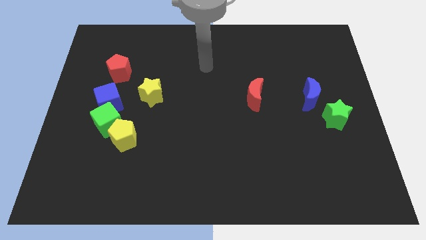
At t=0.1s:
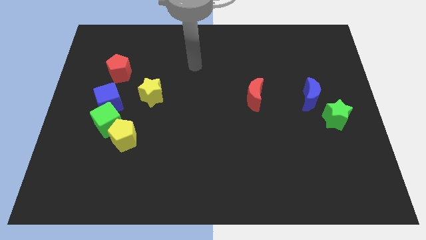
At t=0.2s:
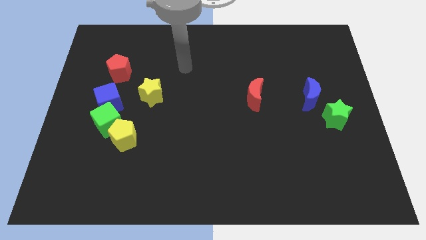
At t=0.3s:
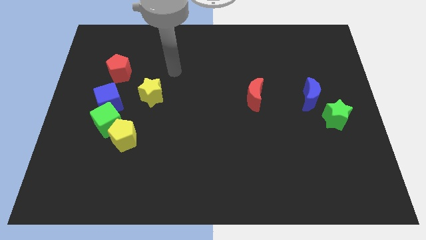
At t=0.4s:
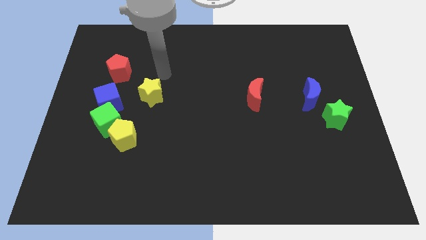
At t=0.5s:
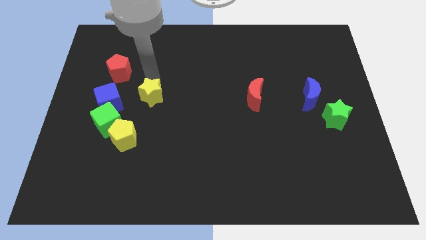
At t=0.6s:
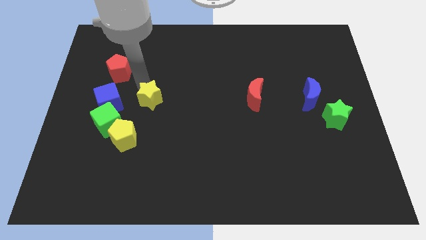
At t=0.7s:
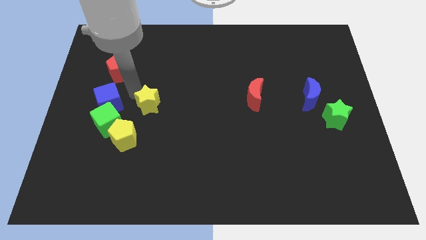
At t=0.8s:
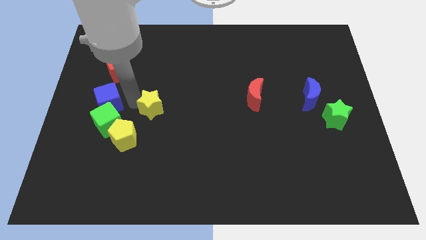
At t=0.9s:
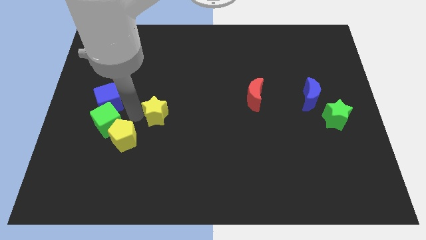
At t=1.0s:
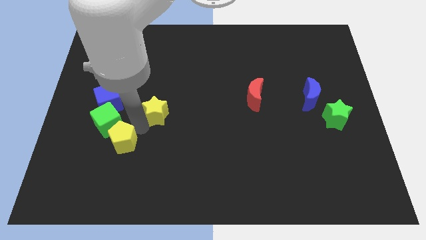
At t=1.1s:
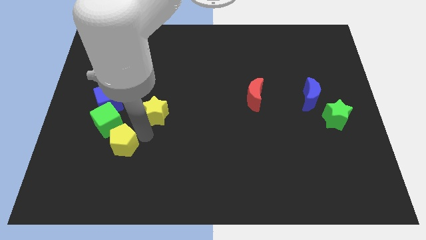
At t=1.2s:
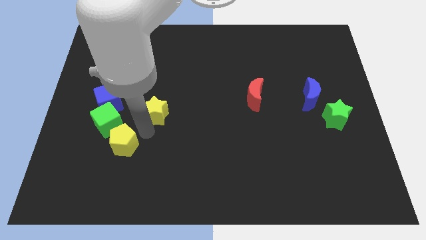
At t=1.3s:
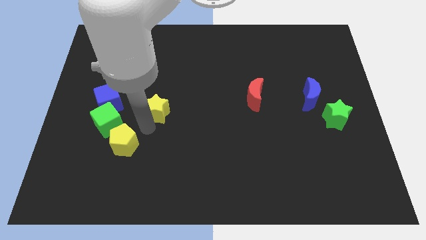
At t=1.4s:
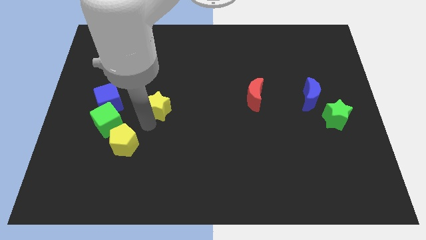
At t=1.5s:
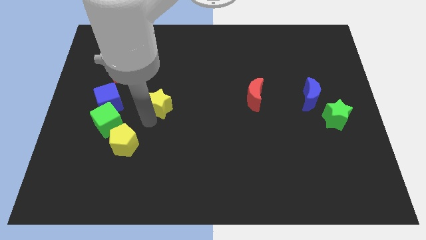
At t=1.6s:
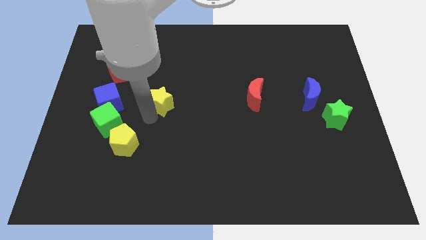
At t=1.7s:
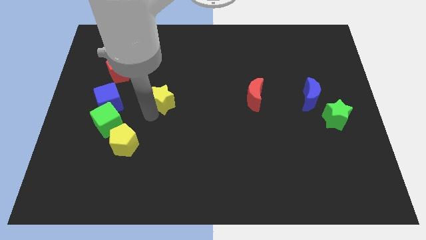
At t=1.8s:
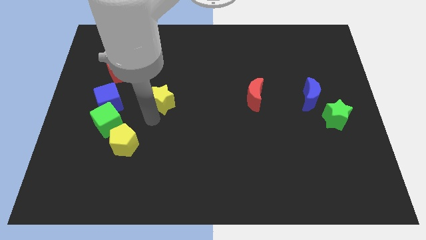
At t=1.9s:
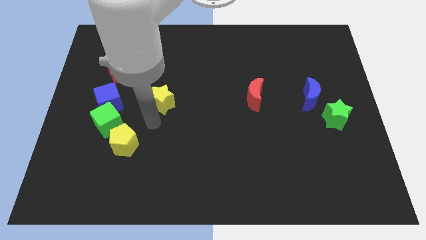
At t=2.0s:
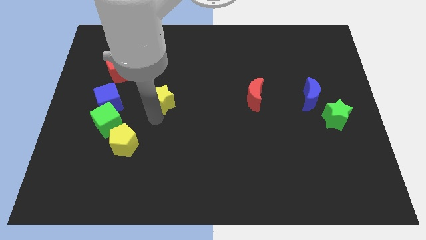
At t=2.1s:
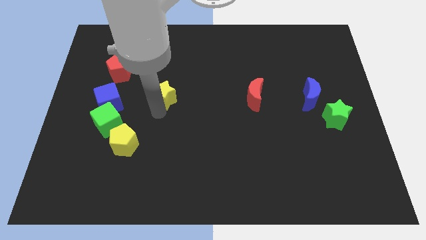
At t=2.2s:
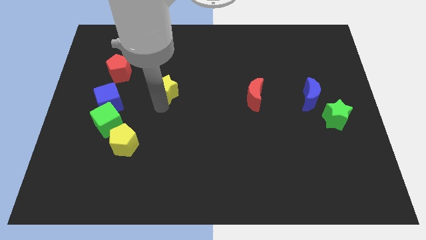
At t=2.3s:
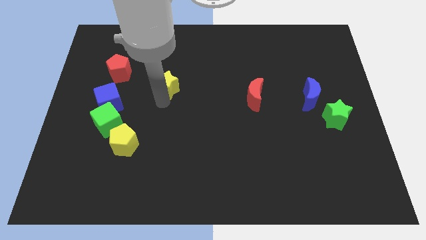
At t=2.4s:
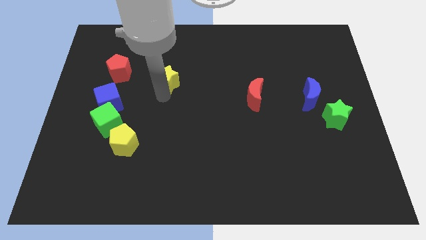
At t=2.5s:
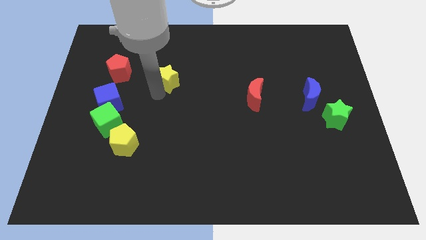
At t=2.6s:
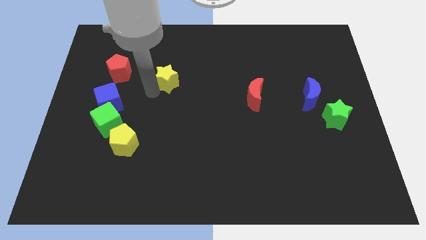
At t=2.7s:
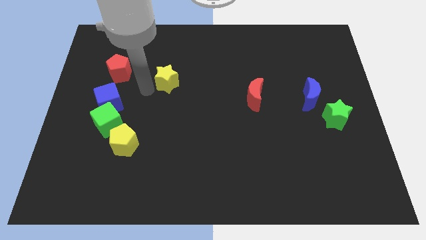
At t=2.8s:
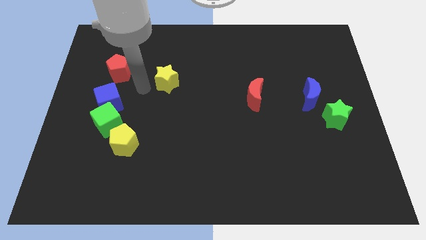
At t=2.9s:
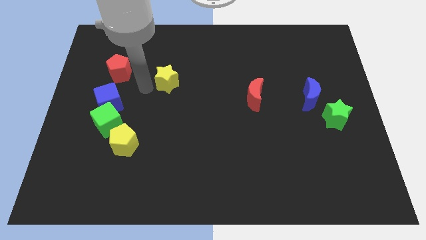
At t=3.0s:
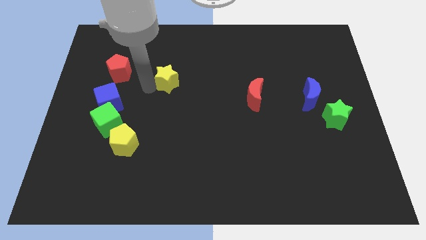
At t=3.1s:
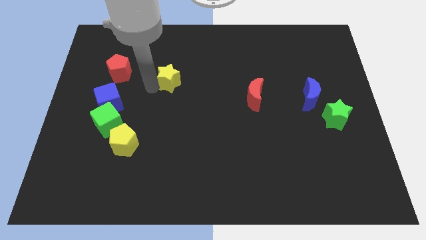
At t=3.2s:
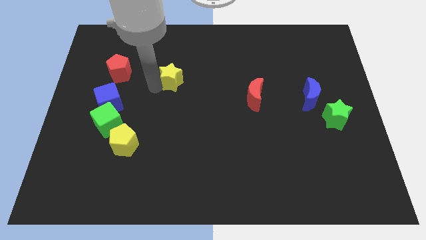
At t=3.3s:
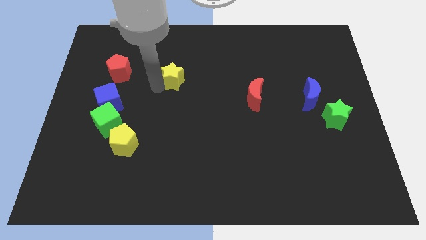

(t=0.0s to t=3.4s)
push the yellow star upwards and then to the right a little

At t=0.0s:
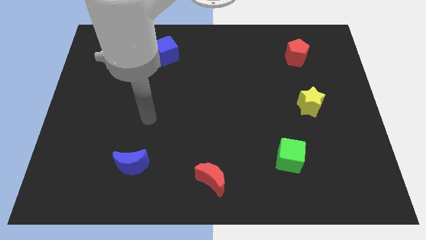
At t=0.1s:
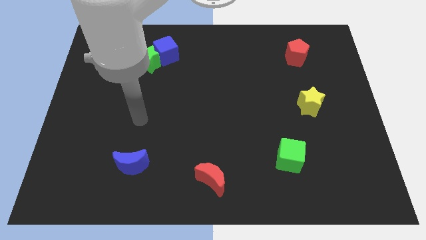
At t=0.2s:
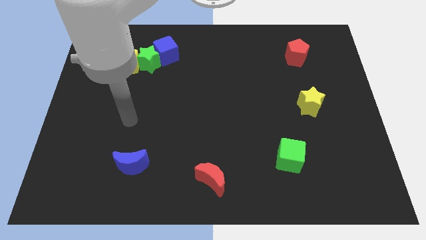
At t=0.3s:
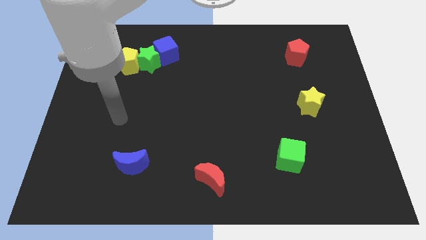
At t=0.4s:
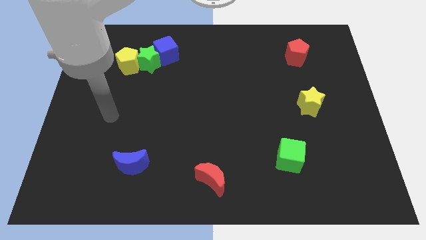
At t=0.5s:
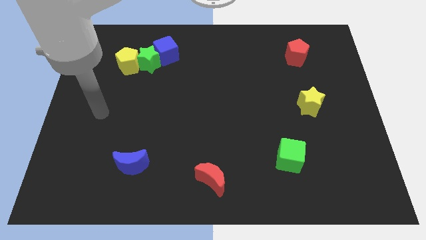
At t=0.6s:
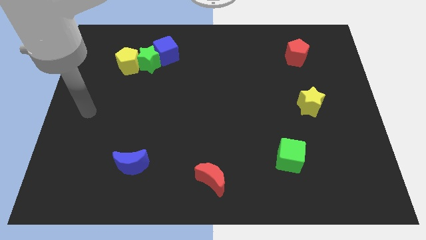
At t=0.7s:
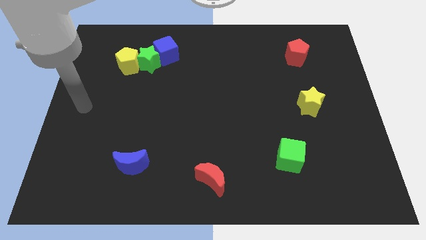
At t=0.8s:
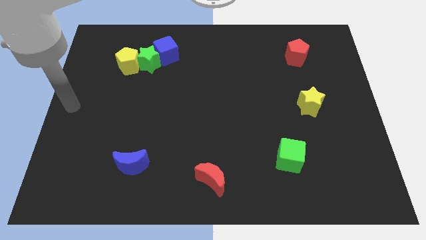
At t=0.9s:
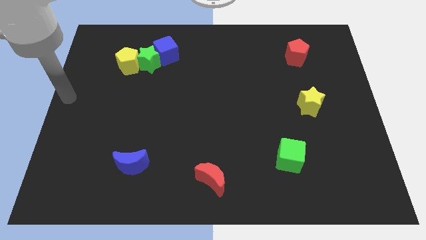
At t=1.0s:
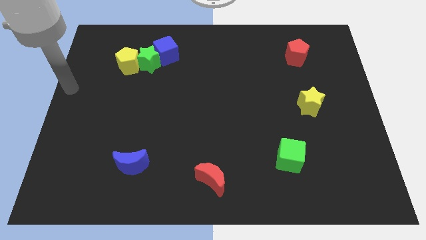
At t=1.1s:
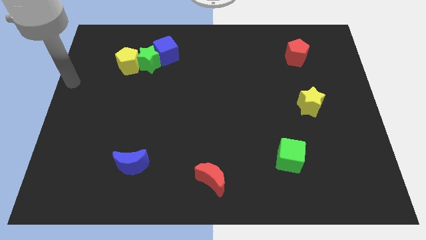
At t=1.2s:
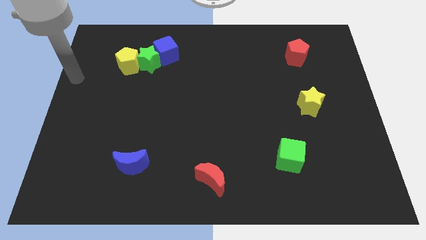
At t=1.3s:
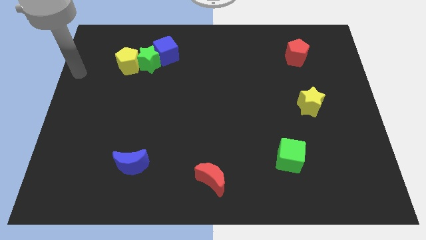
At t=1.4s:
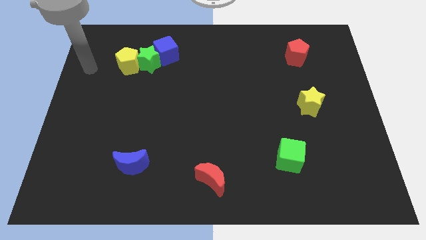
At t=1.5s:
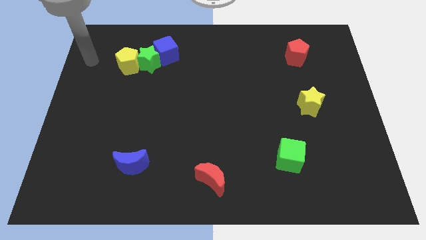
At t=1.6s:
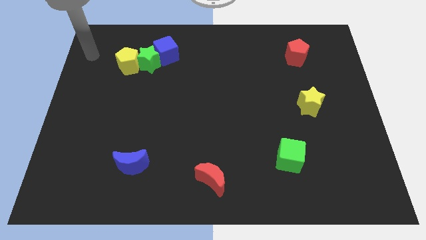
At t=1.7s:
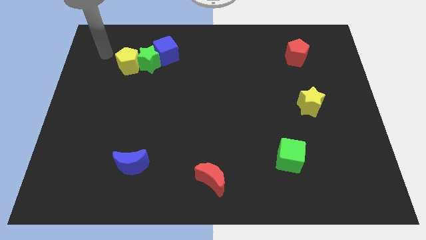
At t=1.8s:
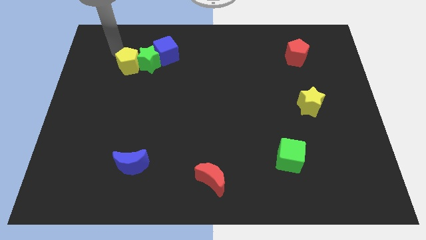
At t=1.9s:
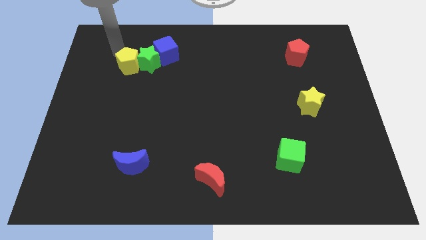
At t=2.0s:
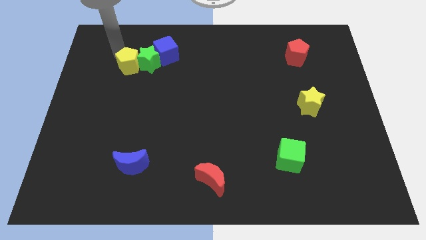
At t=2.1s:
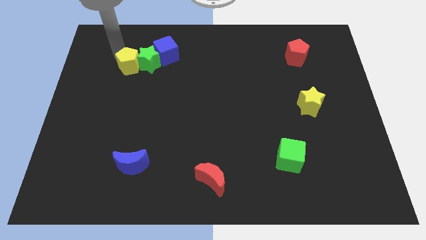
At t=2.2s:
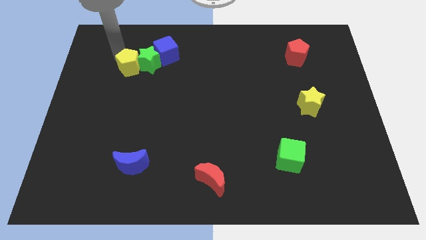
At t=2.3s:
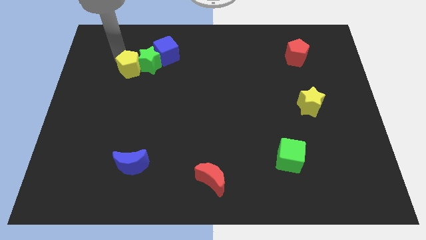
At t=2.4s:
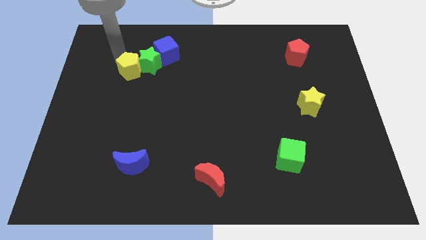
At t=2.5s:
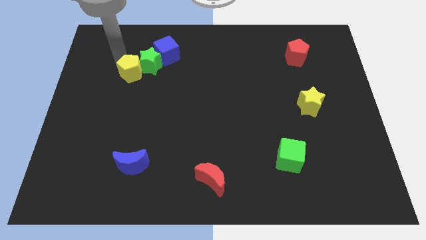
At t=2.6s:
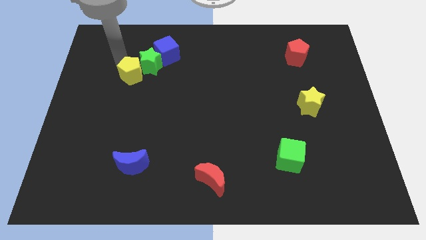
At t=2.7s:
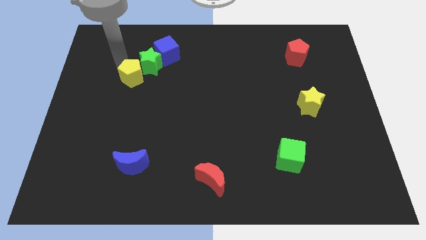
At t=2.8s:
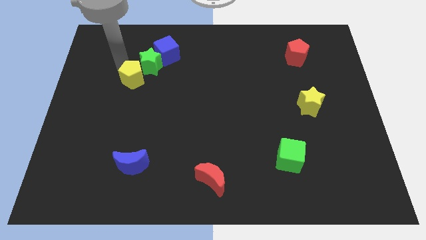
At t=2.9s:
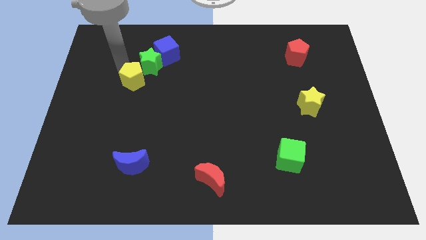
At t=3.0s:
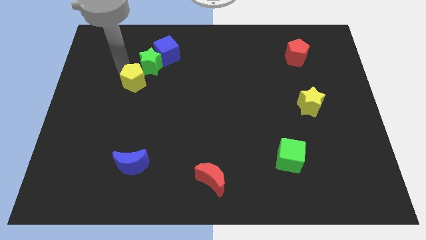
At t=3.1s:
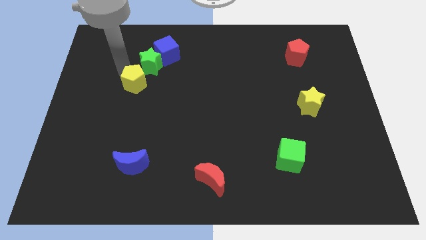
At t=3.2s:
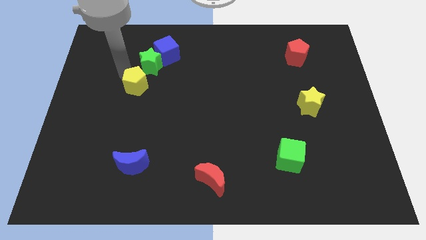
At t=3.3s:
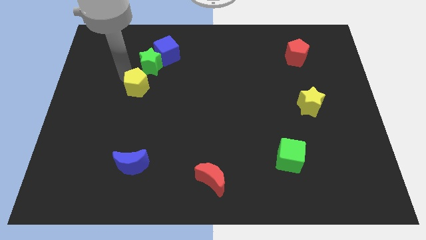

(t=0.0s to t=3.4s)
slightly move the yellow pentagon downwards and to the right diagonally

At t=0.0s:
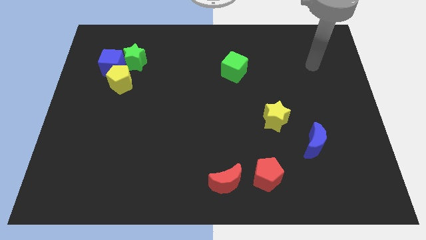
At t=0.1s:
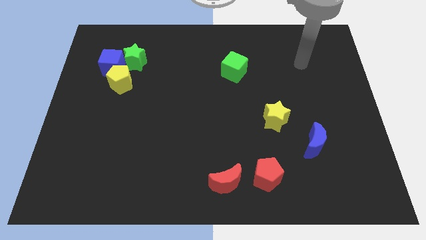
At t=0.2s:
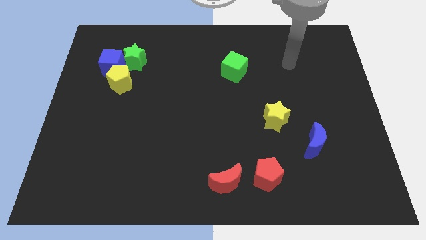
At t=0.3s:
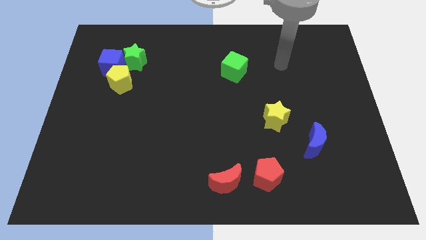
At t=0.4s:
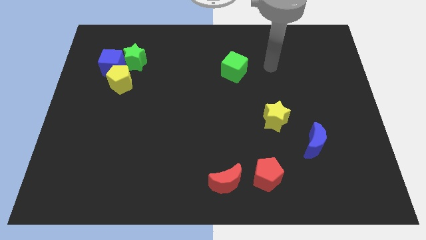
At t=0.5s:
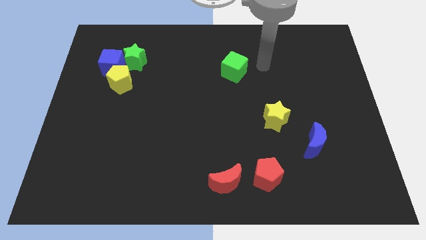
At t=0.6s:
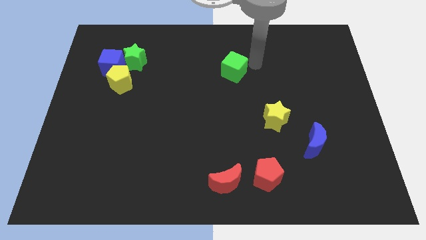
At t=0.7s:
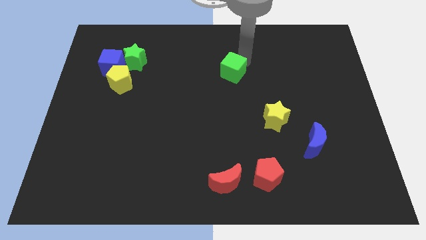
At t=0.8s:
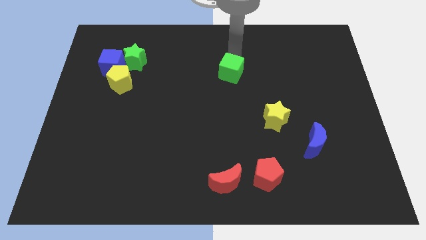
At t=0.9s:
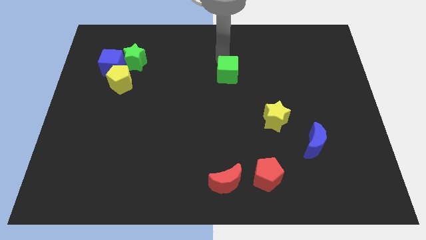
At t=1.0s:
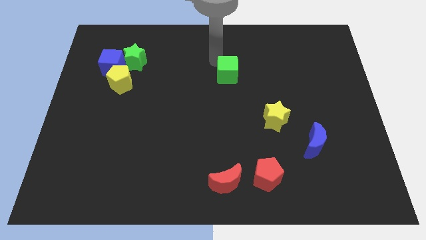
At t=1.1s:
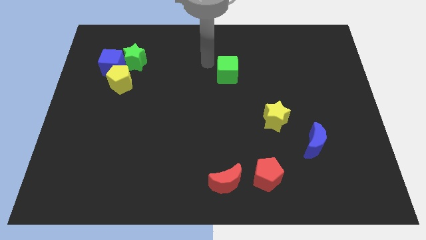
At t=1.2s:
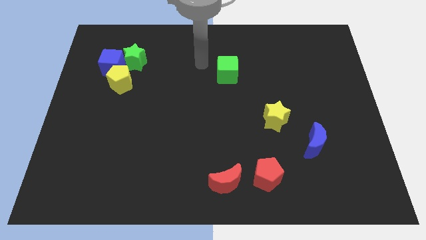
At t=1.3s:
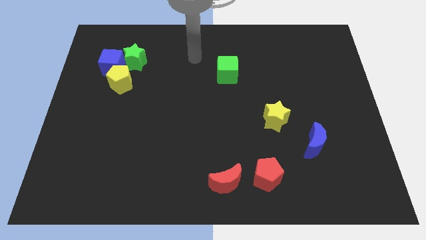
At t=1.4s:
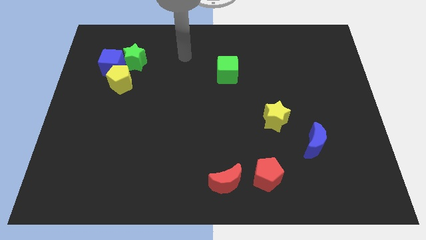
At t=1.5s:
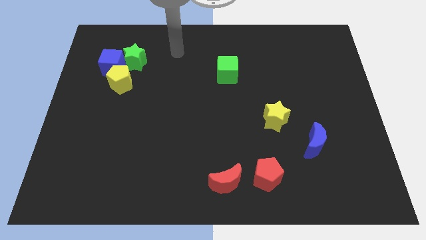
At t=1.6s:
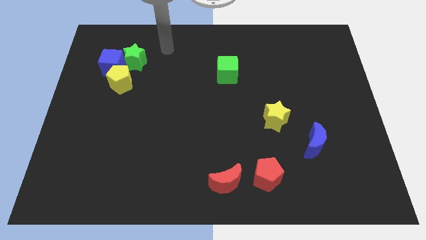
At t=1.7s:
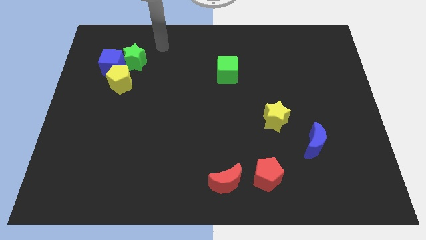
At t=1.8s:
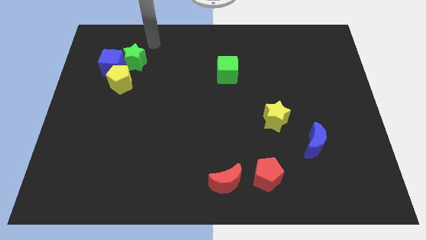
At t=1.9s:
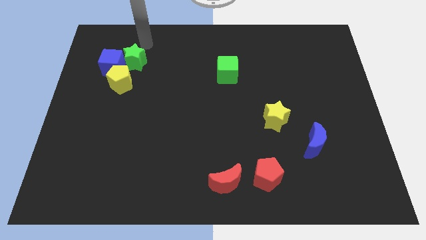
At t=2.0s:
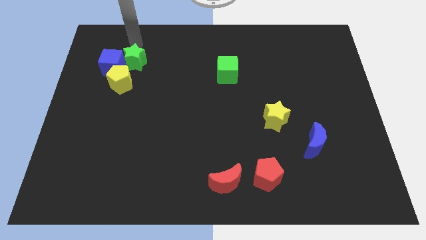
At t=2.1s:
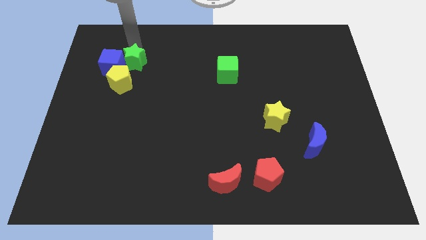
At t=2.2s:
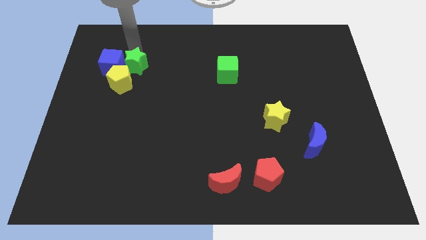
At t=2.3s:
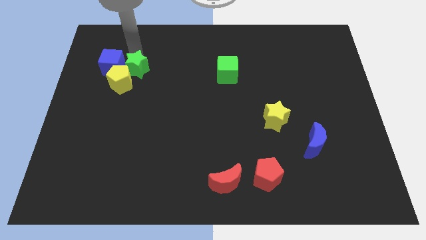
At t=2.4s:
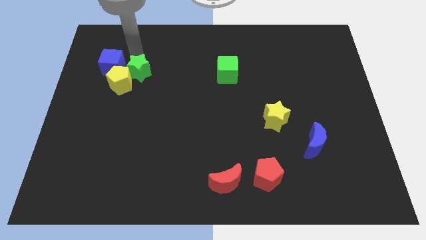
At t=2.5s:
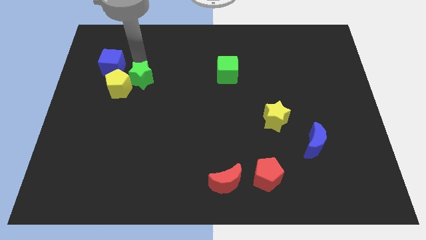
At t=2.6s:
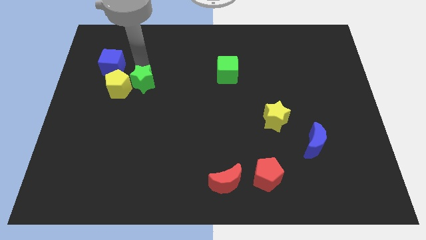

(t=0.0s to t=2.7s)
push the green star downwards a bit
